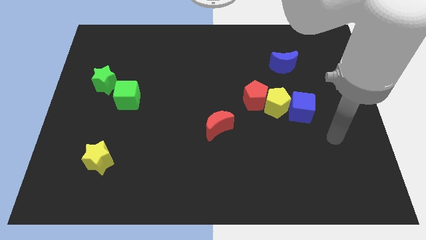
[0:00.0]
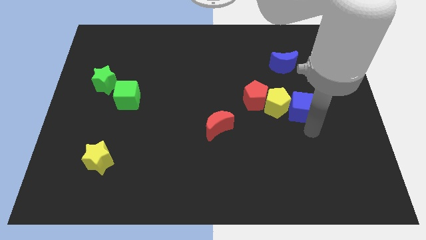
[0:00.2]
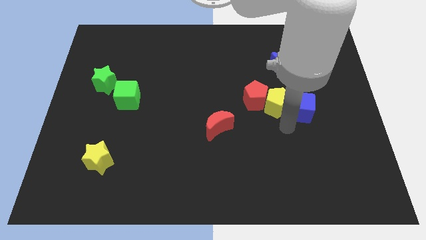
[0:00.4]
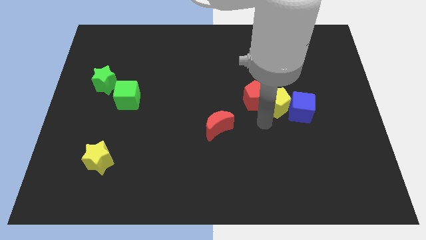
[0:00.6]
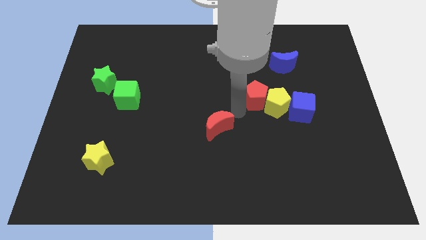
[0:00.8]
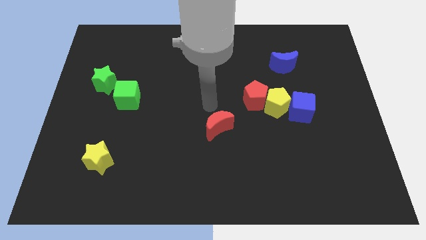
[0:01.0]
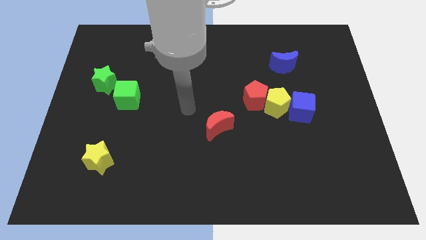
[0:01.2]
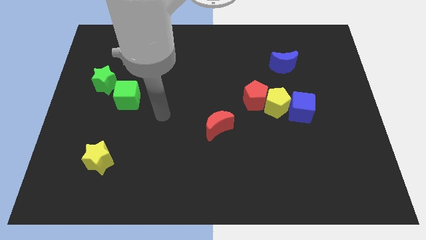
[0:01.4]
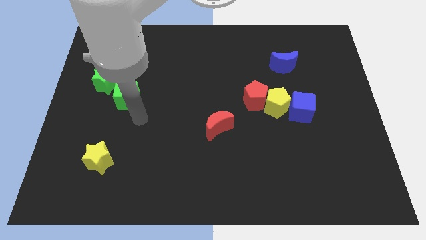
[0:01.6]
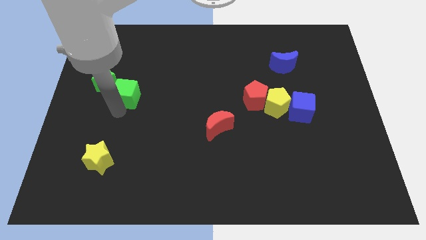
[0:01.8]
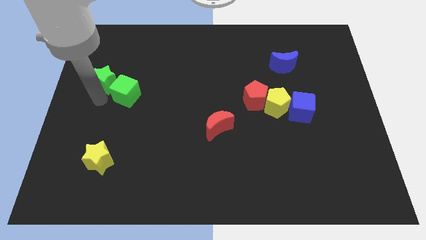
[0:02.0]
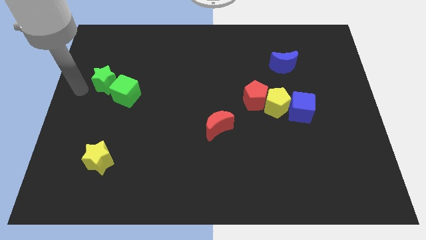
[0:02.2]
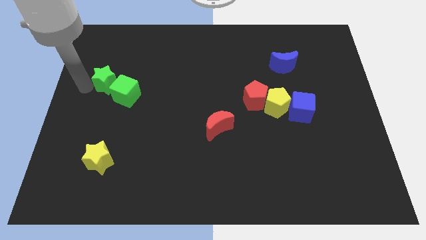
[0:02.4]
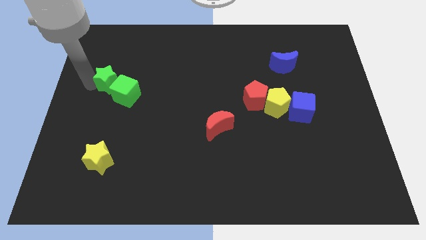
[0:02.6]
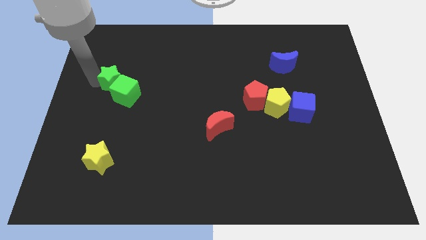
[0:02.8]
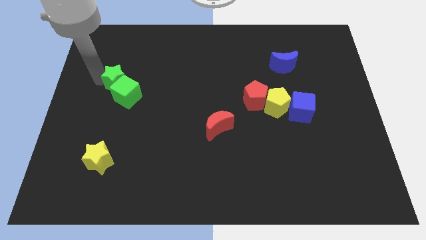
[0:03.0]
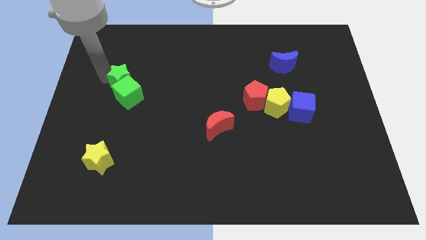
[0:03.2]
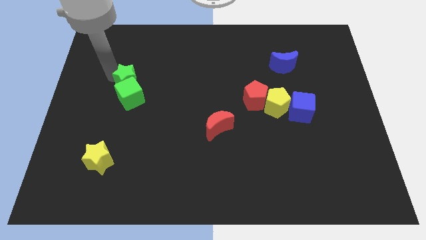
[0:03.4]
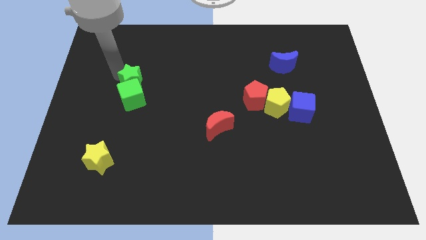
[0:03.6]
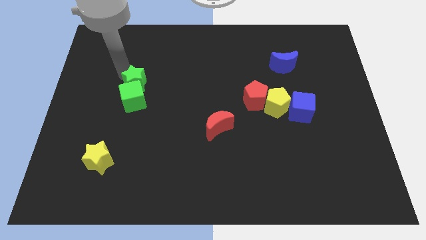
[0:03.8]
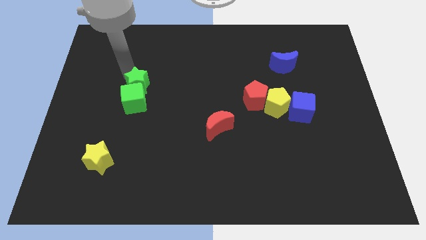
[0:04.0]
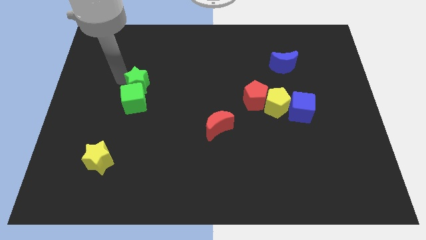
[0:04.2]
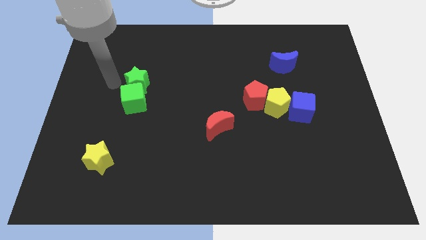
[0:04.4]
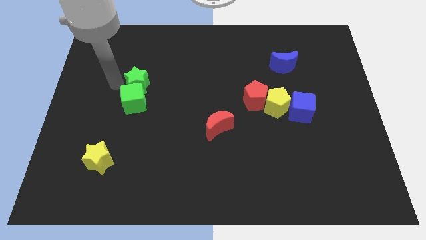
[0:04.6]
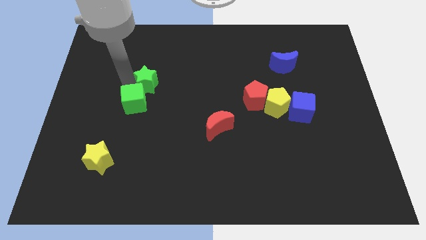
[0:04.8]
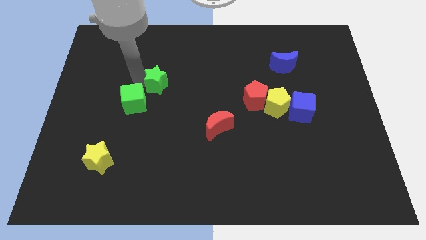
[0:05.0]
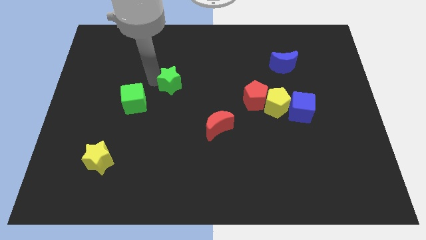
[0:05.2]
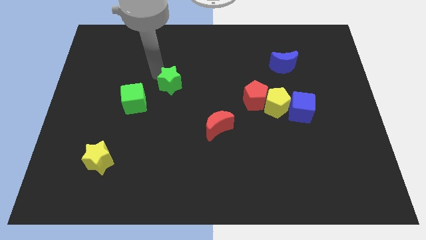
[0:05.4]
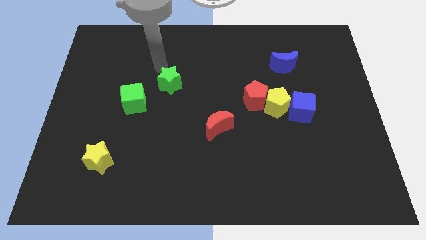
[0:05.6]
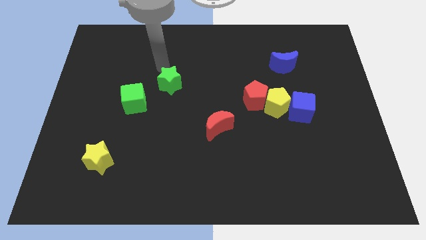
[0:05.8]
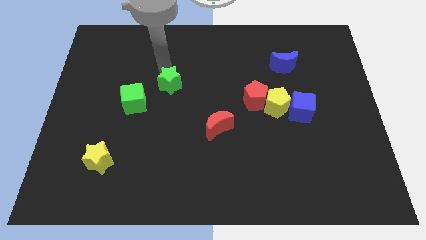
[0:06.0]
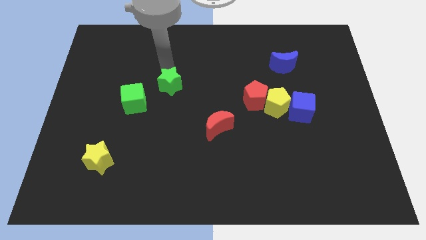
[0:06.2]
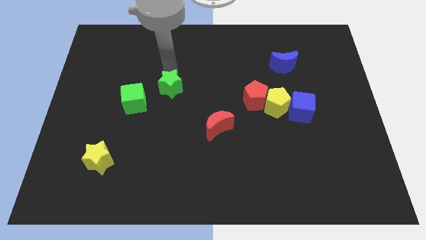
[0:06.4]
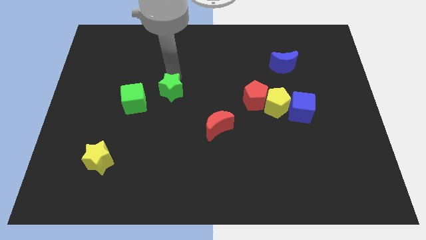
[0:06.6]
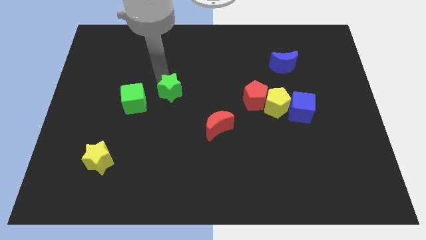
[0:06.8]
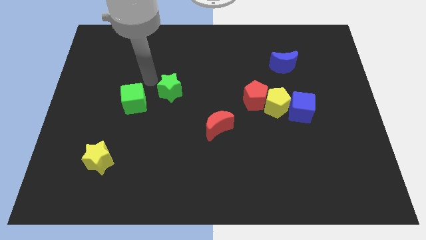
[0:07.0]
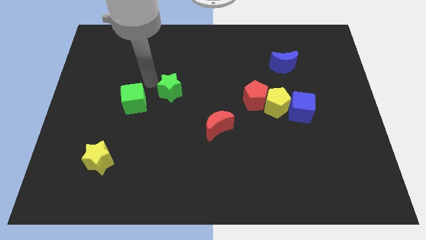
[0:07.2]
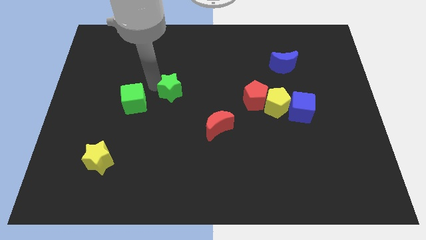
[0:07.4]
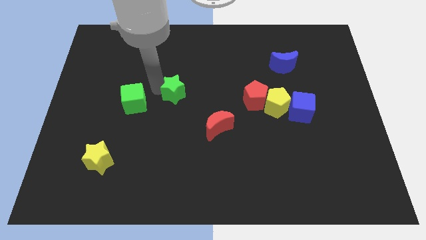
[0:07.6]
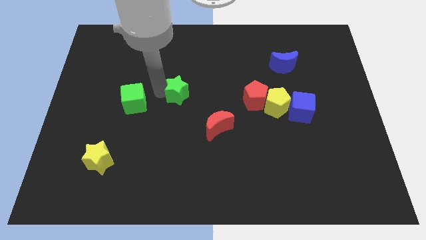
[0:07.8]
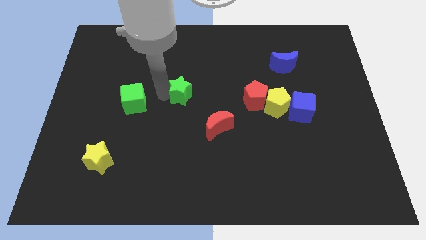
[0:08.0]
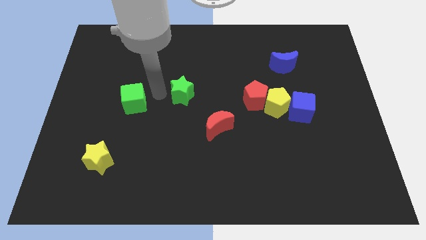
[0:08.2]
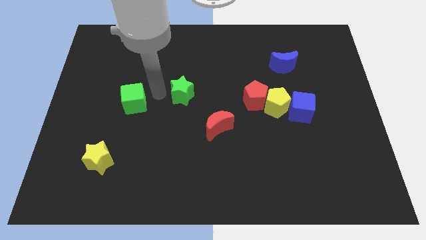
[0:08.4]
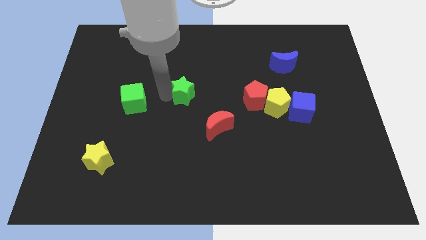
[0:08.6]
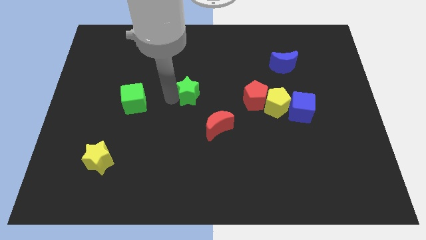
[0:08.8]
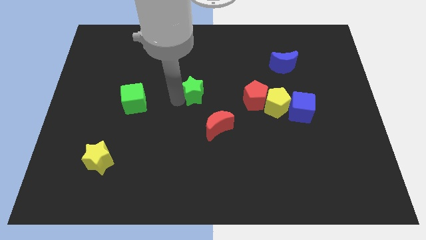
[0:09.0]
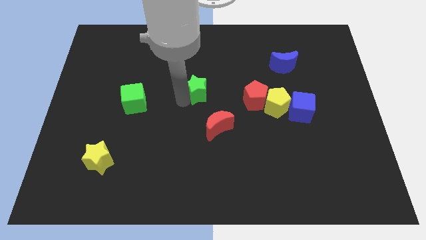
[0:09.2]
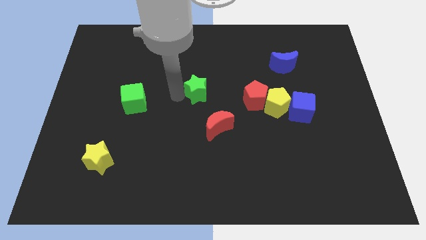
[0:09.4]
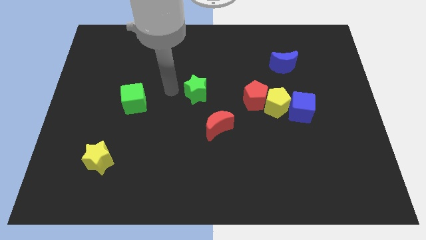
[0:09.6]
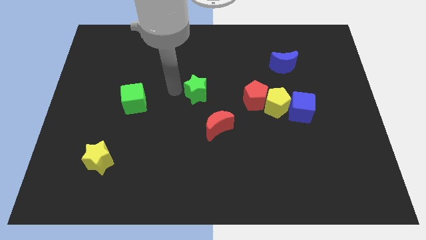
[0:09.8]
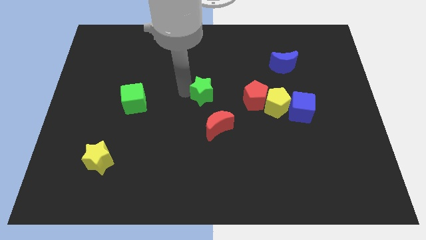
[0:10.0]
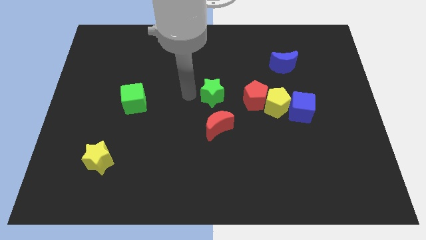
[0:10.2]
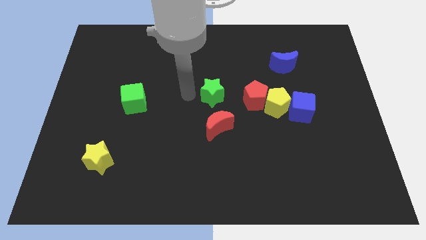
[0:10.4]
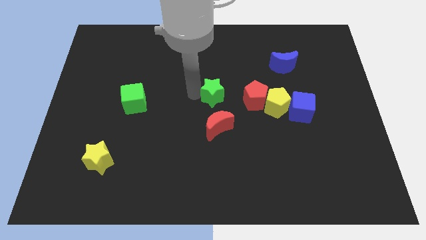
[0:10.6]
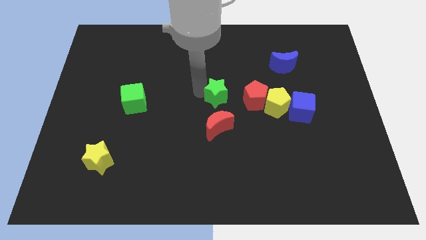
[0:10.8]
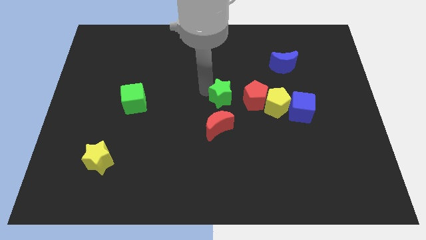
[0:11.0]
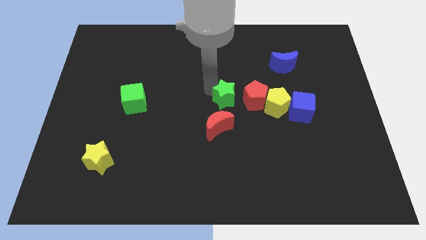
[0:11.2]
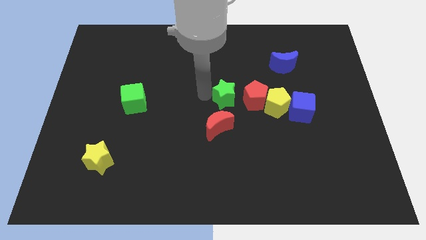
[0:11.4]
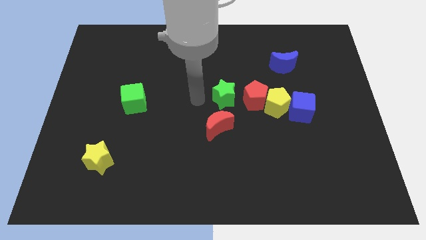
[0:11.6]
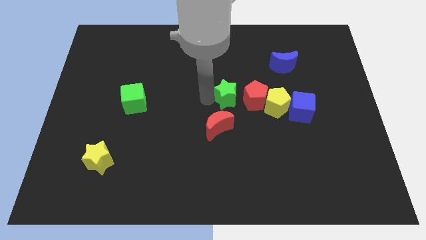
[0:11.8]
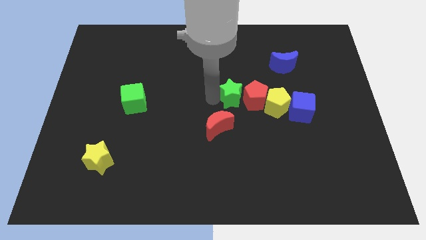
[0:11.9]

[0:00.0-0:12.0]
put the green star towards the red pentagon
